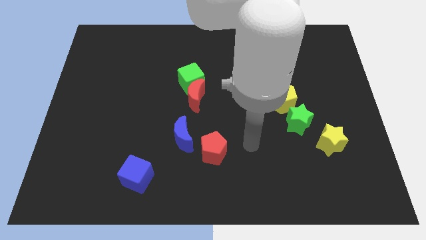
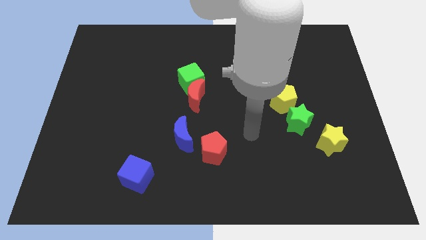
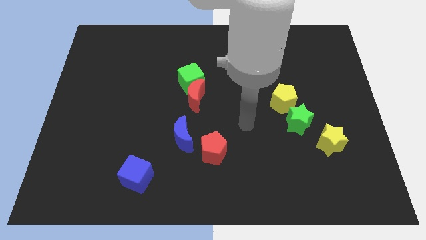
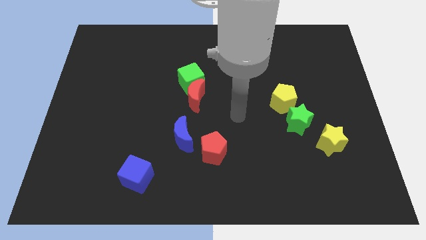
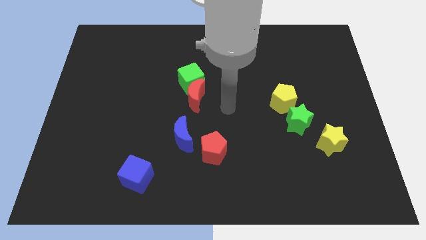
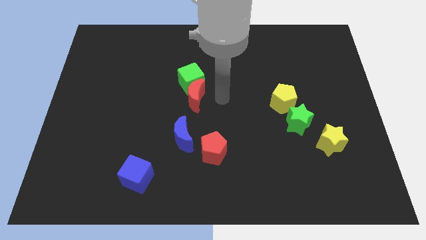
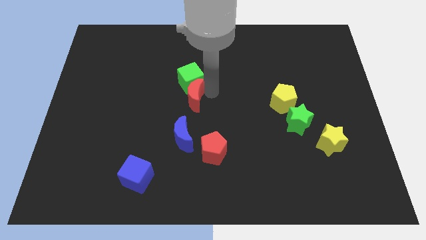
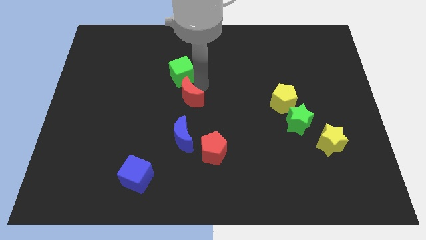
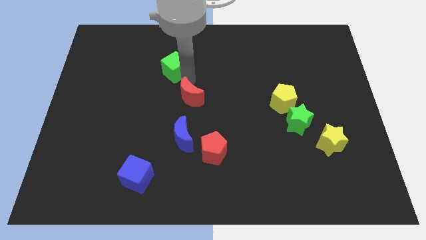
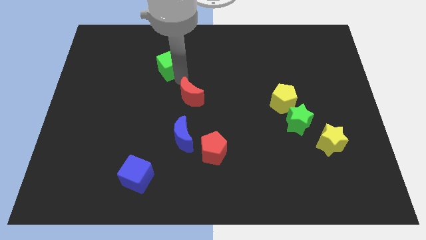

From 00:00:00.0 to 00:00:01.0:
separate the red moon from the green cube

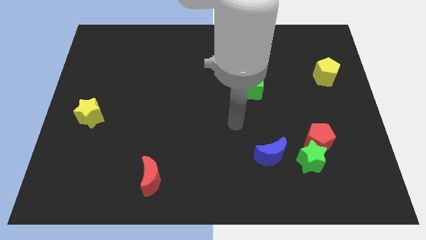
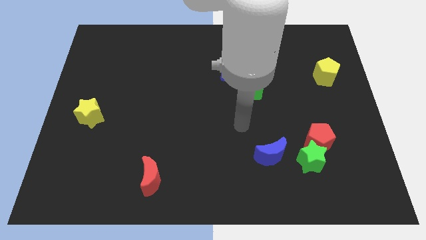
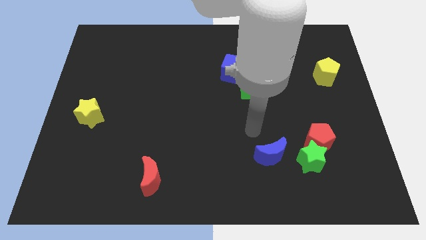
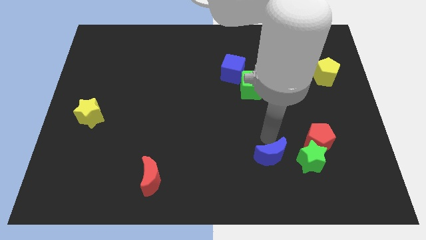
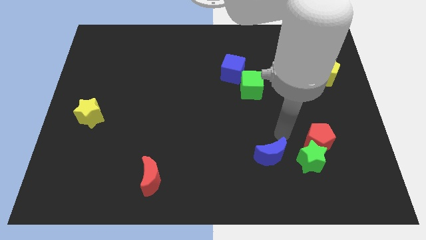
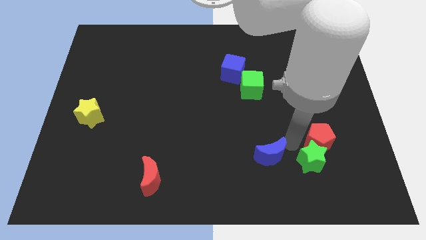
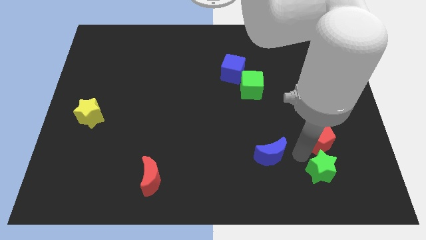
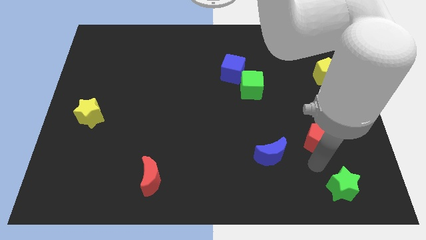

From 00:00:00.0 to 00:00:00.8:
pull the red pentagon apart from the green star

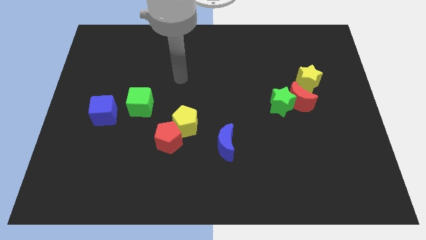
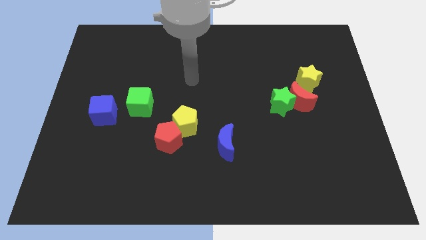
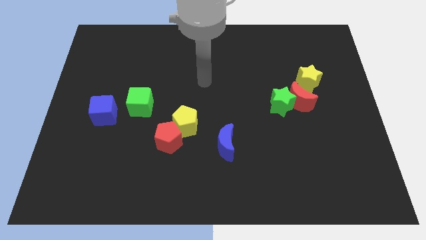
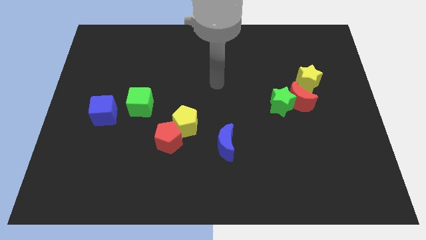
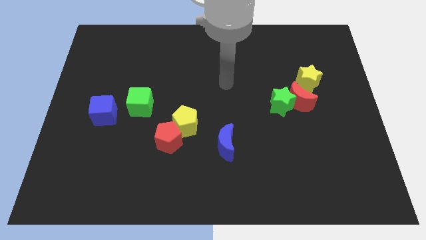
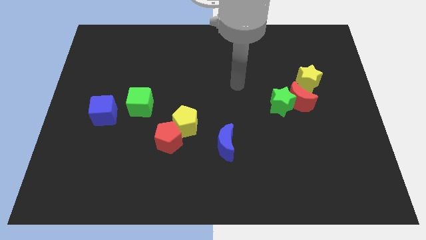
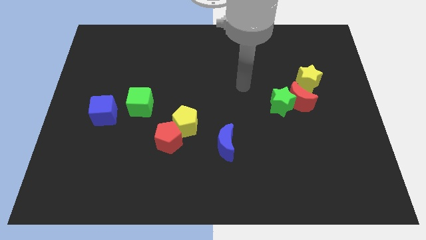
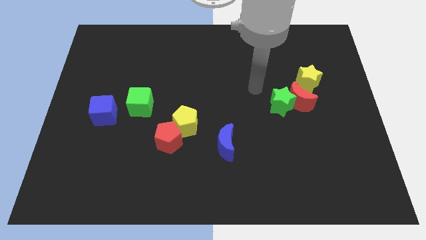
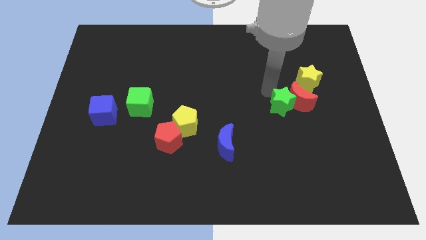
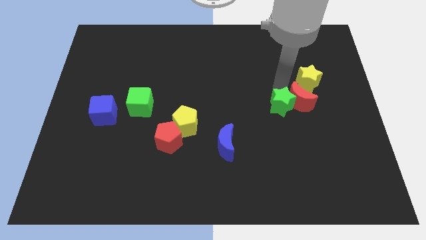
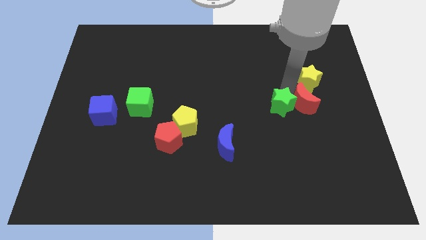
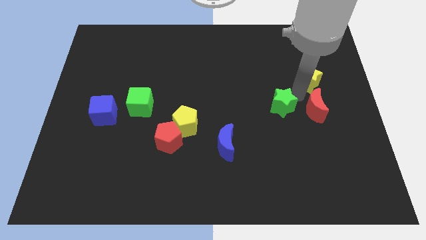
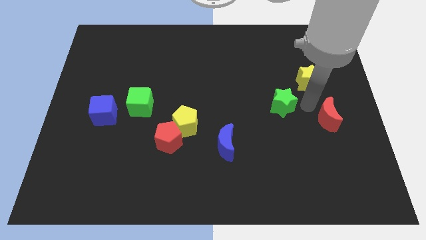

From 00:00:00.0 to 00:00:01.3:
move the green star away from the red moon

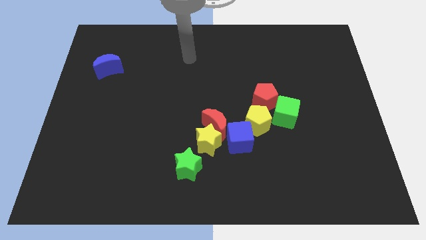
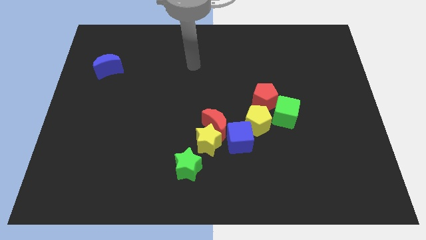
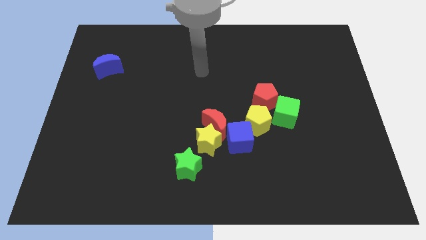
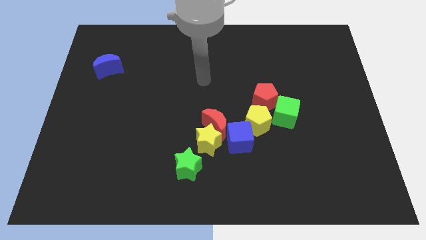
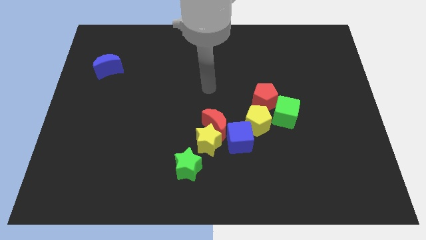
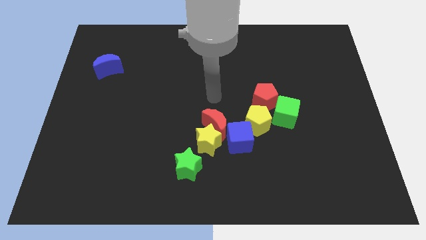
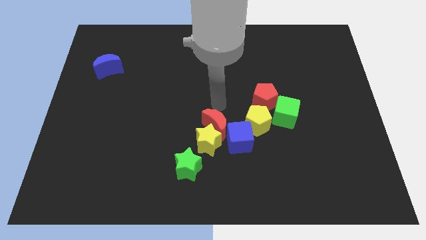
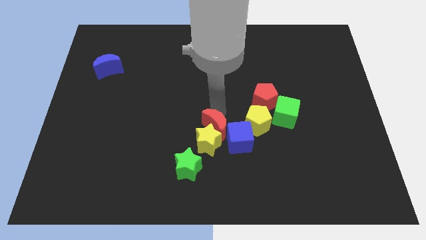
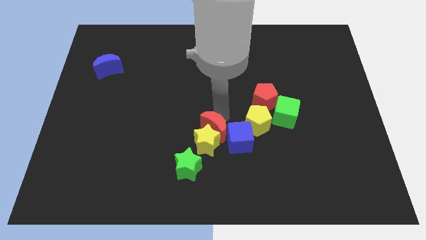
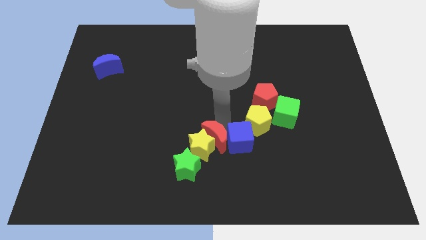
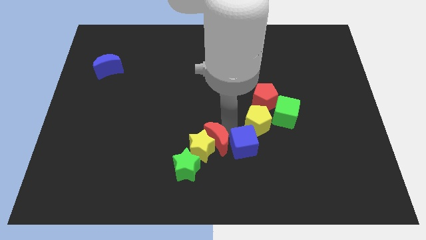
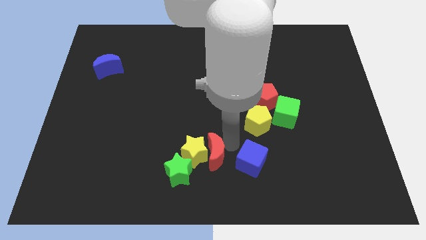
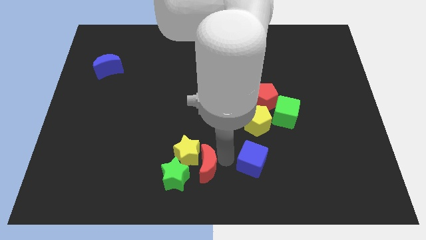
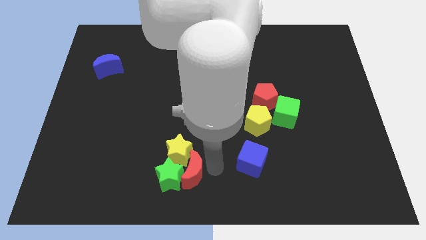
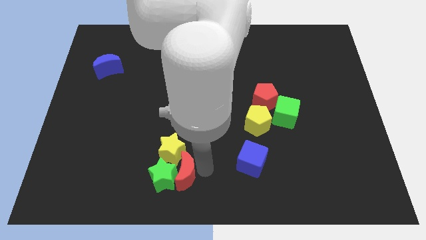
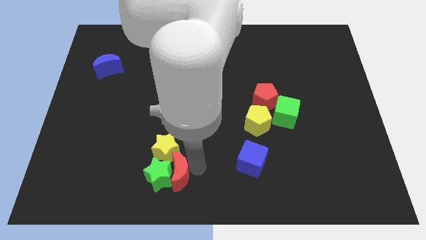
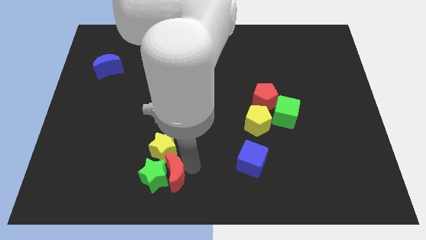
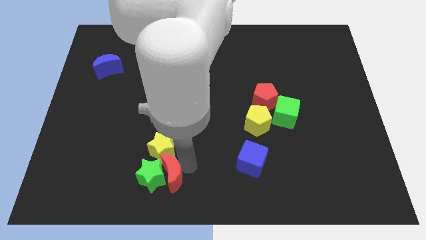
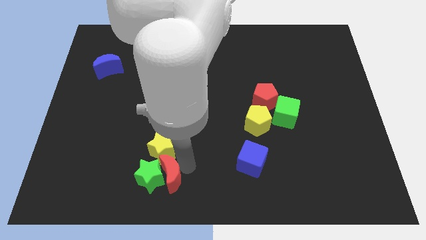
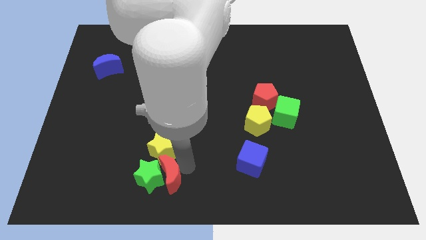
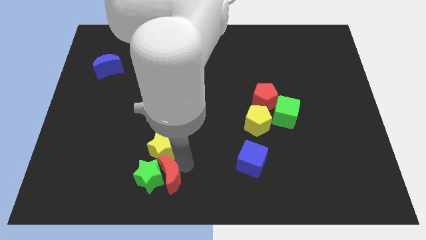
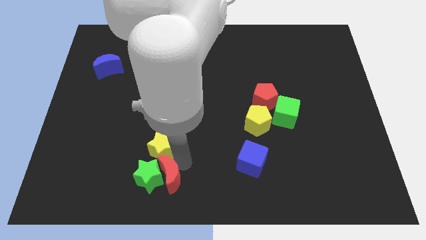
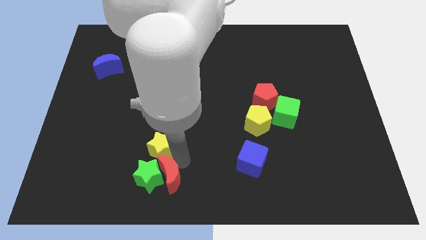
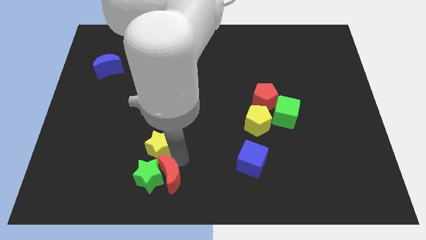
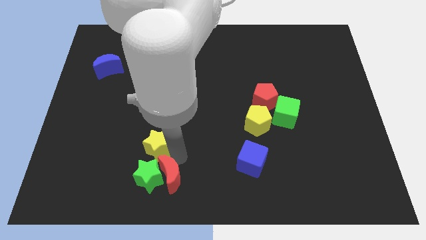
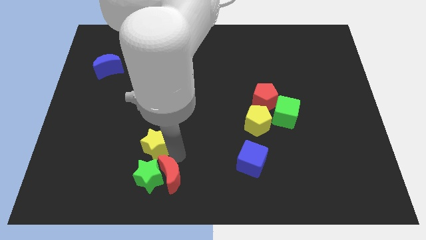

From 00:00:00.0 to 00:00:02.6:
pull the yellow star apart from the group of blocks

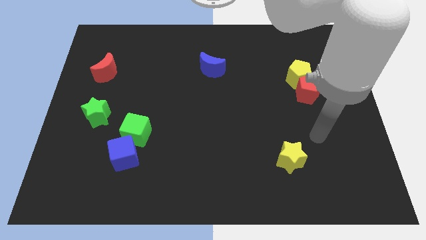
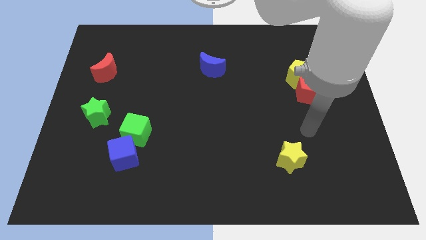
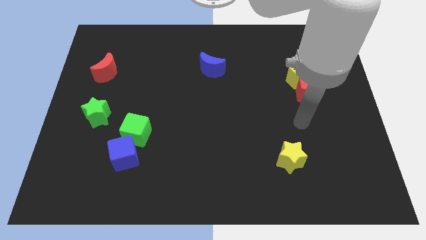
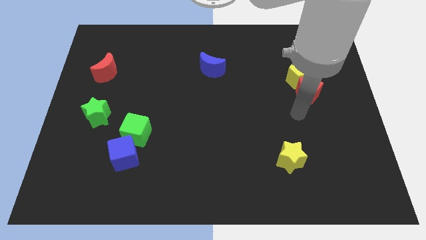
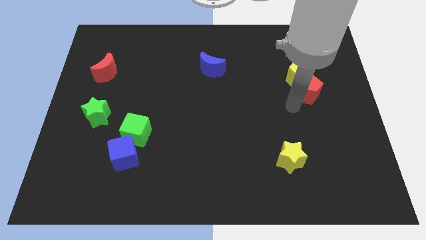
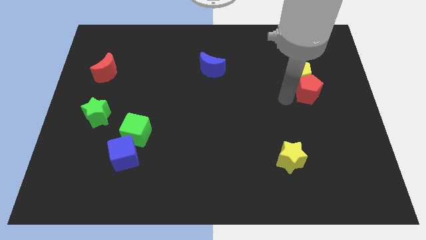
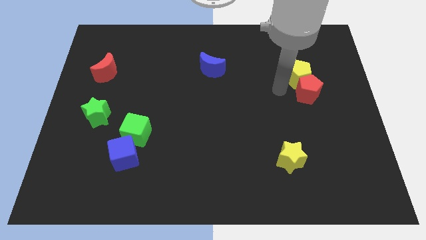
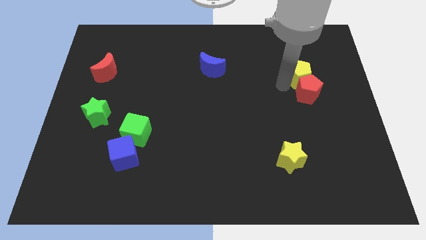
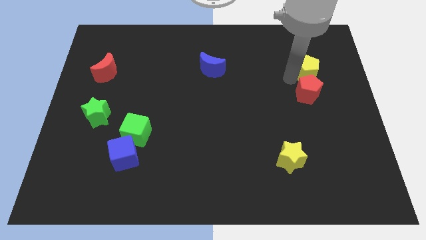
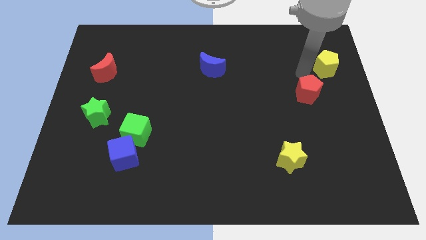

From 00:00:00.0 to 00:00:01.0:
pull the red pentagon apart from the yellow pentagon

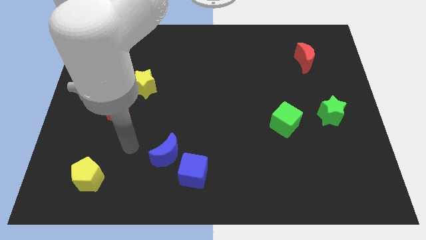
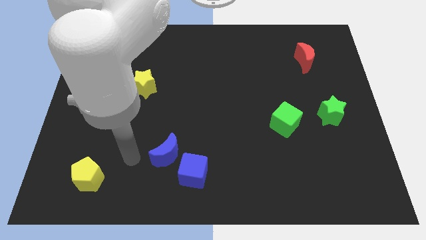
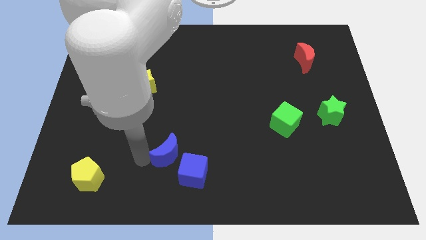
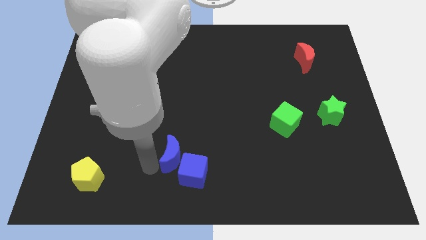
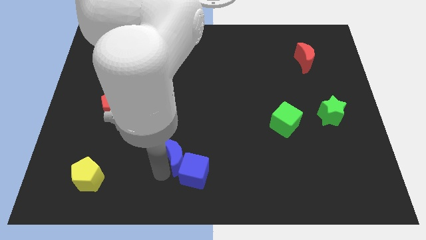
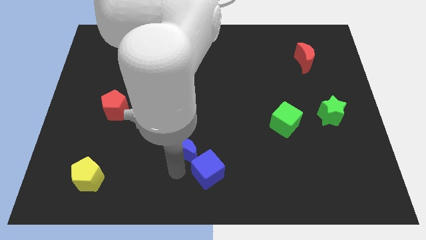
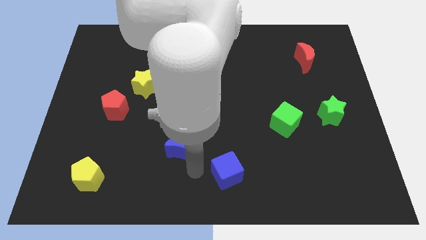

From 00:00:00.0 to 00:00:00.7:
move the blue moon away from the blue cube

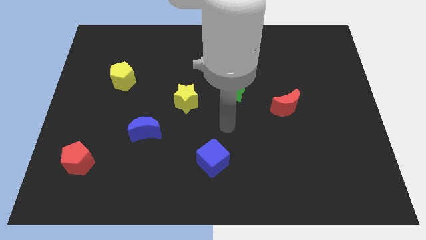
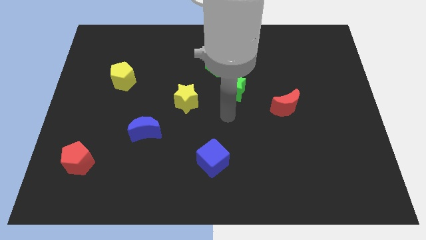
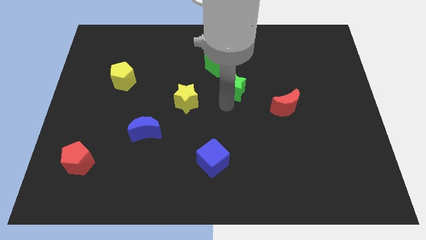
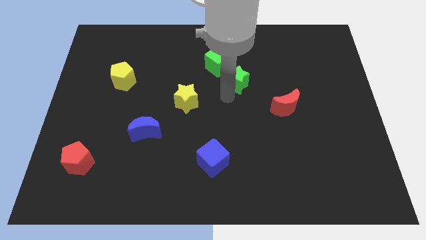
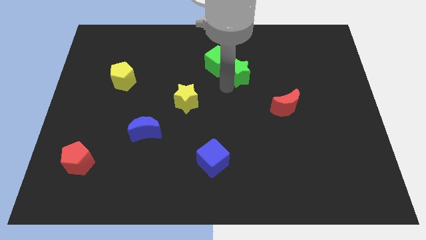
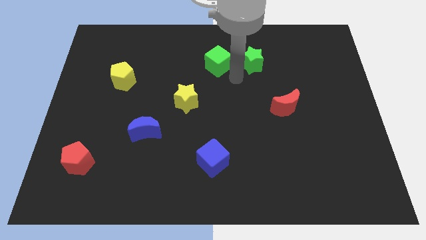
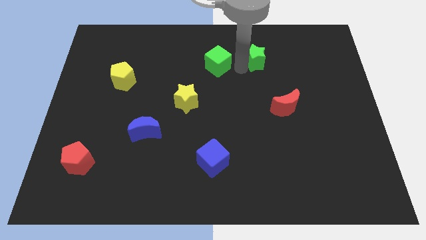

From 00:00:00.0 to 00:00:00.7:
separate the green cube from the green star

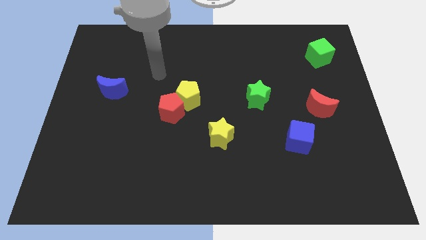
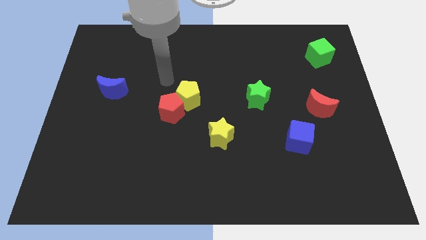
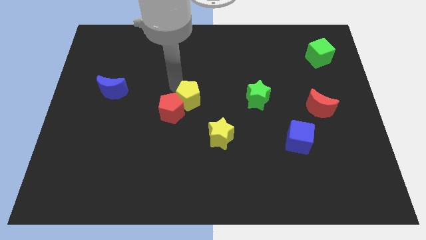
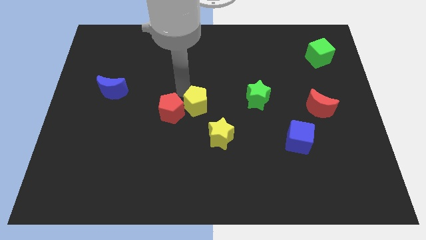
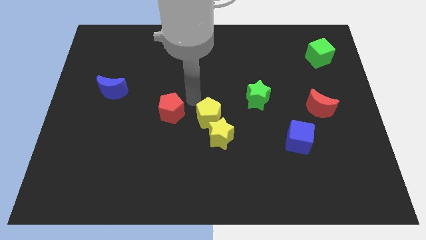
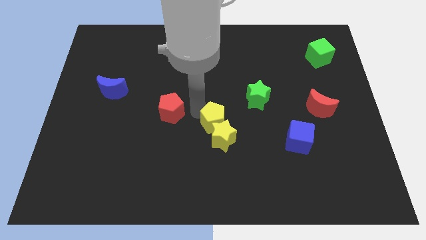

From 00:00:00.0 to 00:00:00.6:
separate the red pentagon from the yellow pentagon

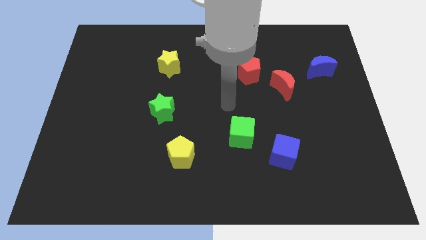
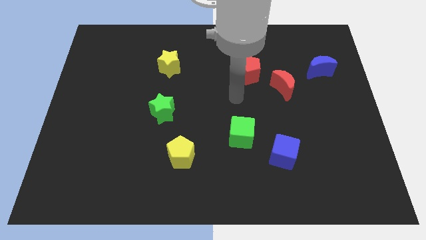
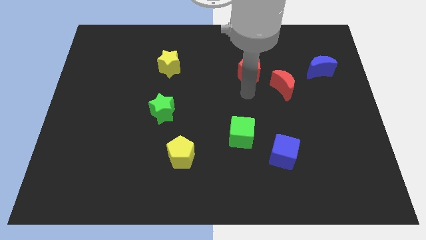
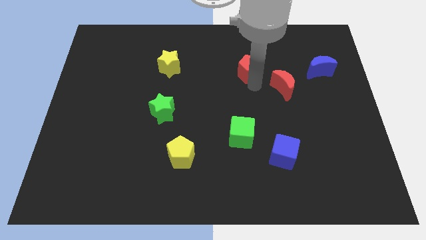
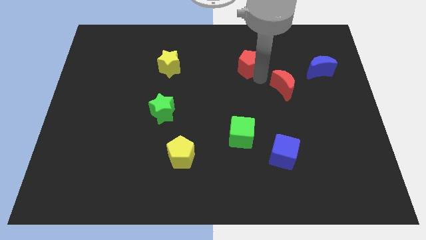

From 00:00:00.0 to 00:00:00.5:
separate the red moon from the red pentagon

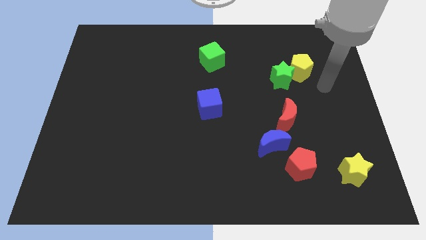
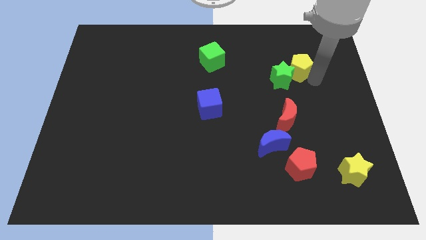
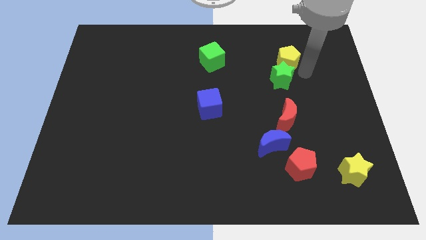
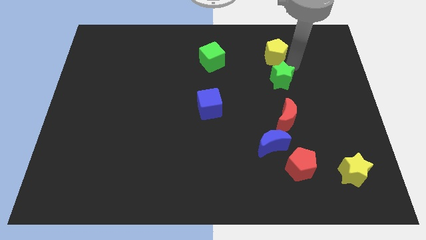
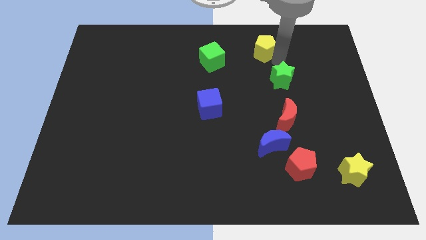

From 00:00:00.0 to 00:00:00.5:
separate the green star from the yellow pentagon
